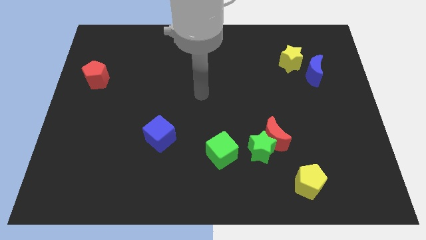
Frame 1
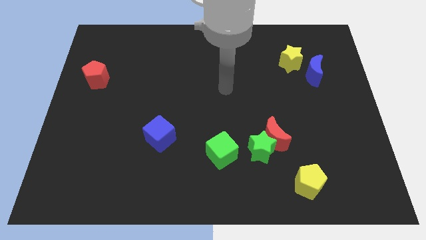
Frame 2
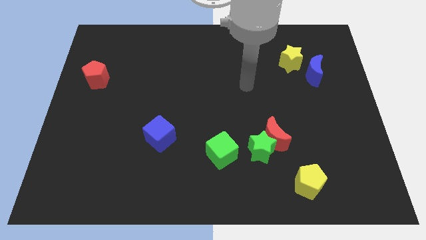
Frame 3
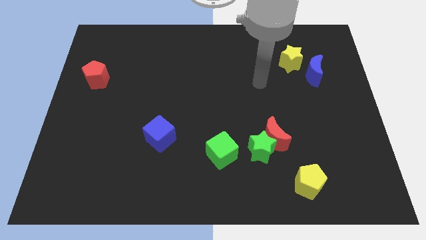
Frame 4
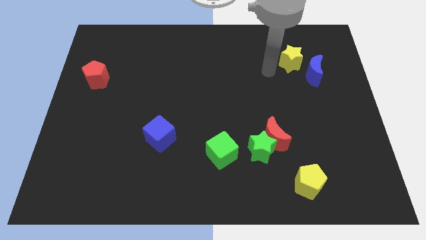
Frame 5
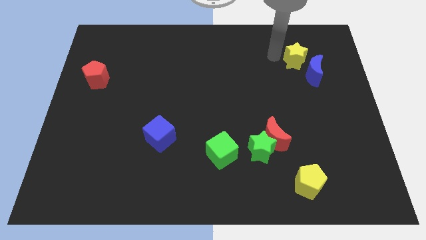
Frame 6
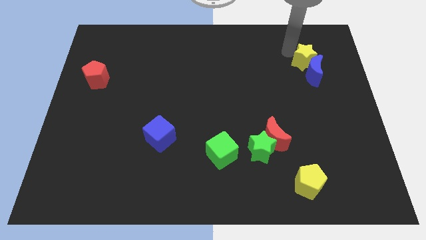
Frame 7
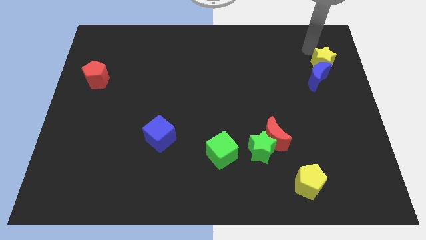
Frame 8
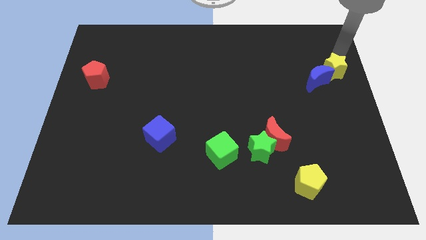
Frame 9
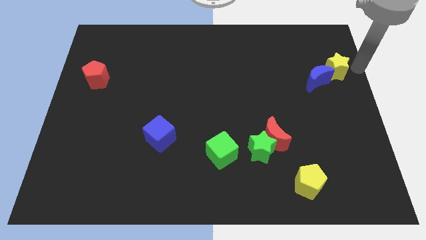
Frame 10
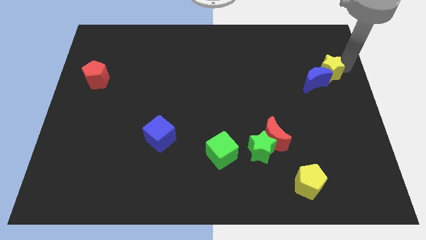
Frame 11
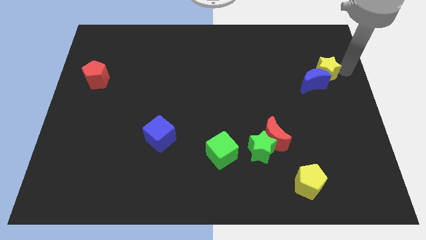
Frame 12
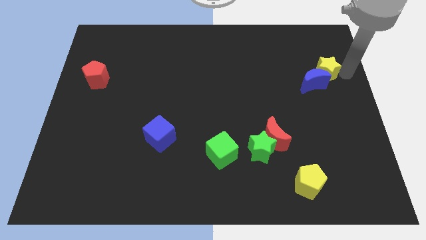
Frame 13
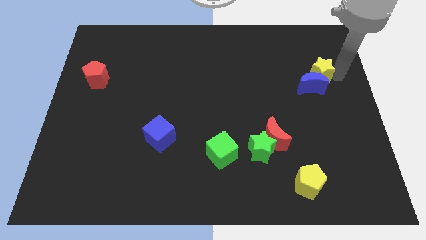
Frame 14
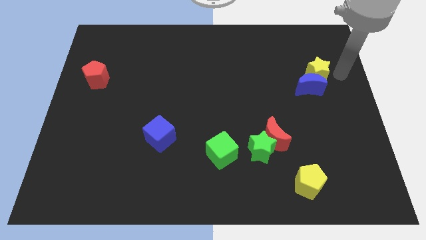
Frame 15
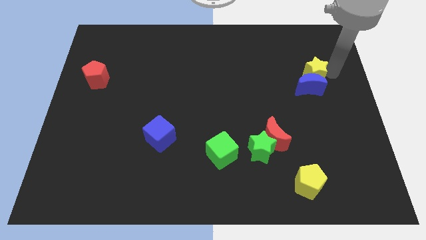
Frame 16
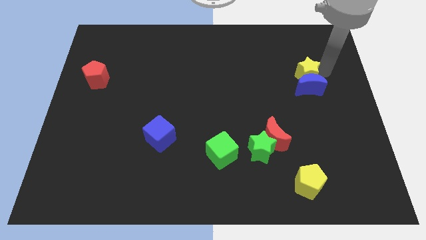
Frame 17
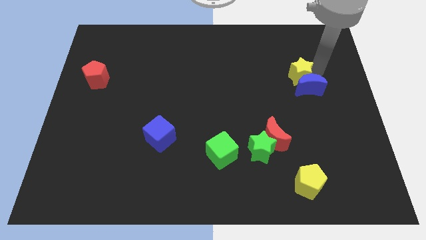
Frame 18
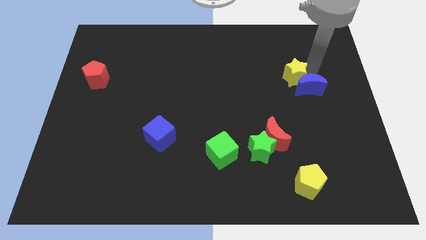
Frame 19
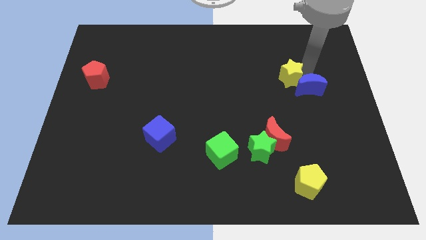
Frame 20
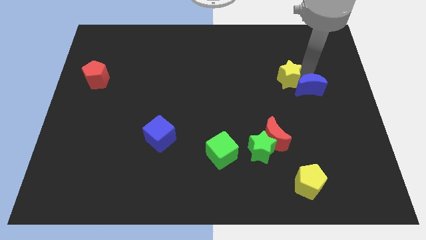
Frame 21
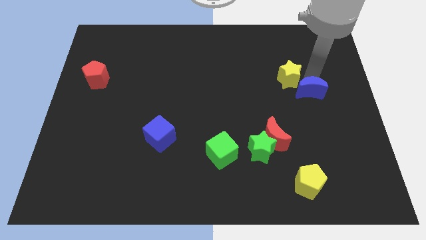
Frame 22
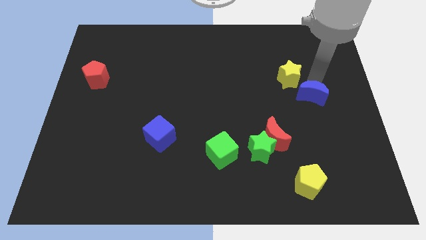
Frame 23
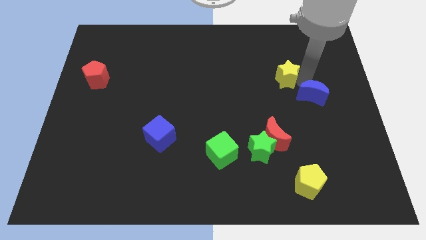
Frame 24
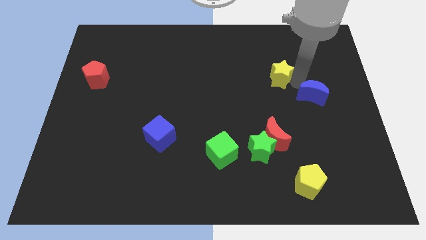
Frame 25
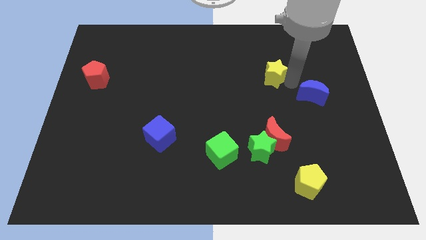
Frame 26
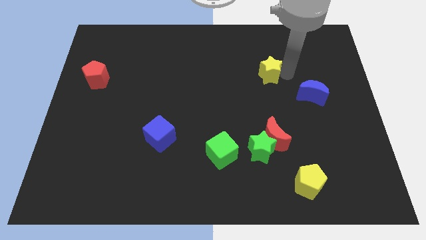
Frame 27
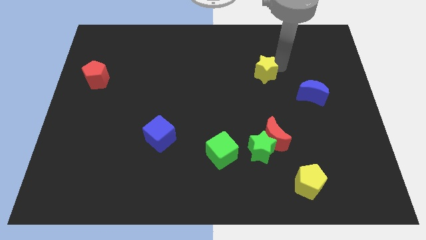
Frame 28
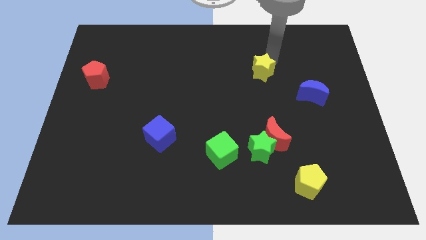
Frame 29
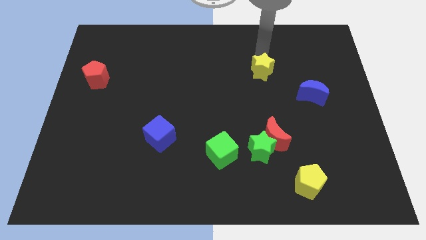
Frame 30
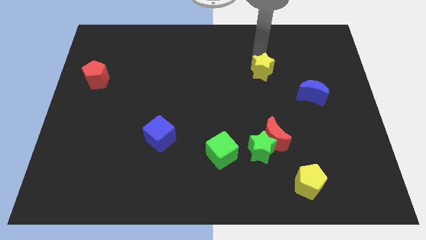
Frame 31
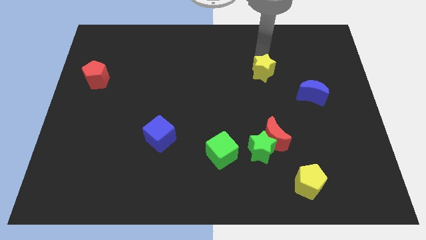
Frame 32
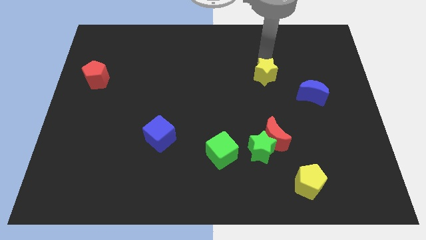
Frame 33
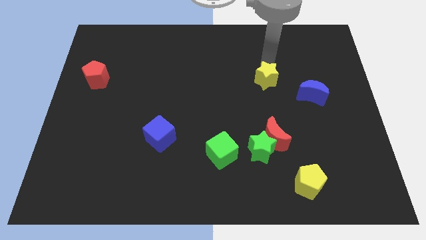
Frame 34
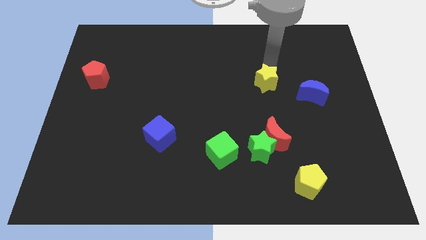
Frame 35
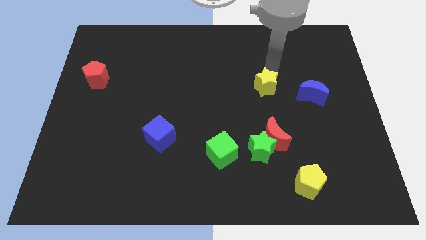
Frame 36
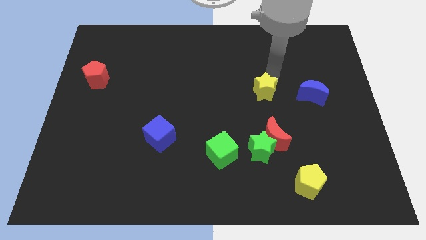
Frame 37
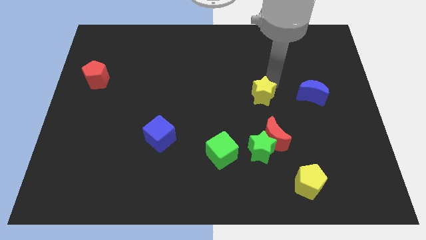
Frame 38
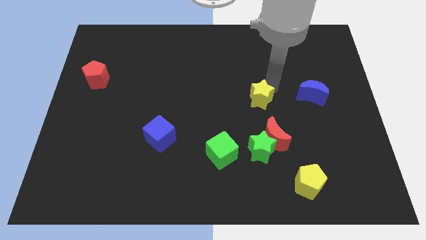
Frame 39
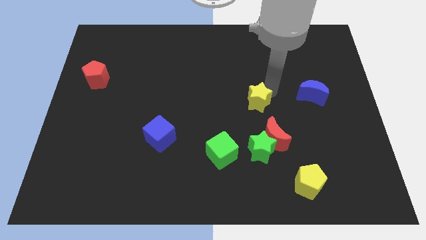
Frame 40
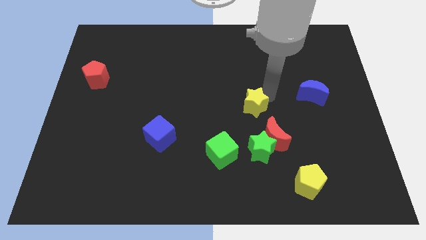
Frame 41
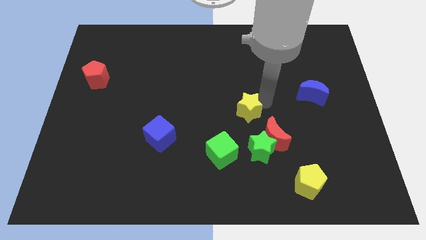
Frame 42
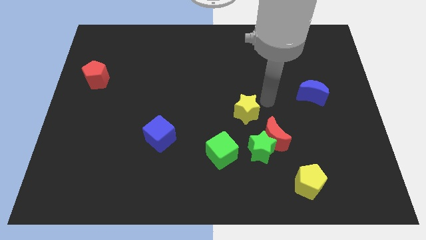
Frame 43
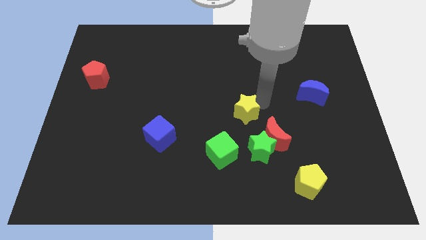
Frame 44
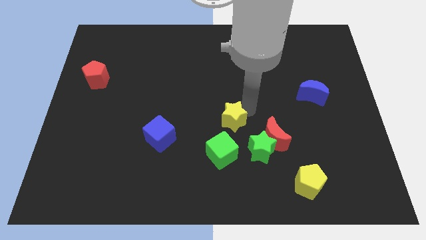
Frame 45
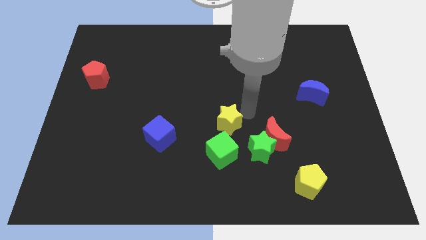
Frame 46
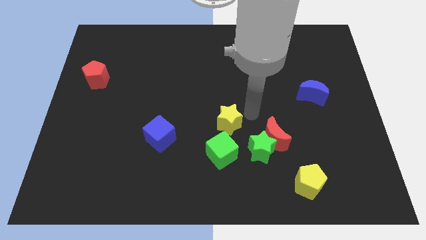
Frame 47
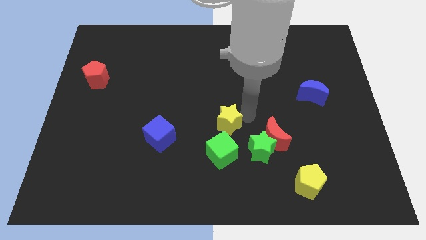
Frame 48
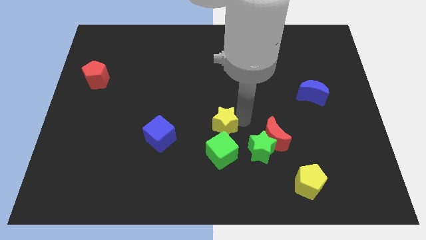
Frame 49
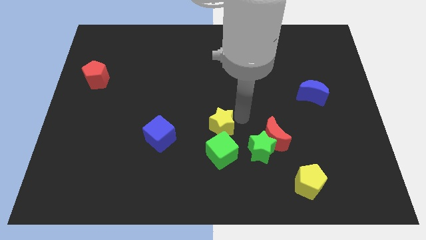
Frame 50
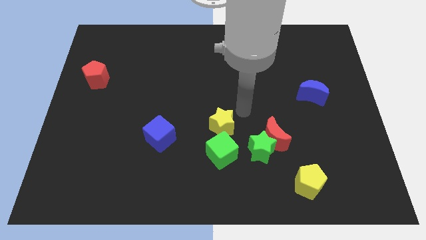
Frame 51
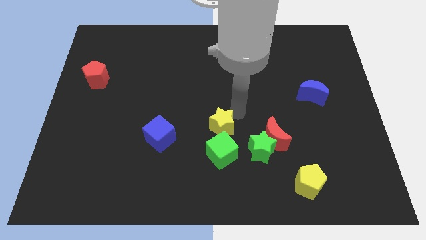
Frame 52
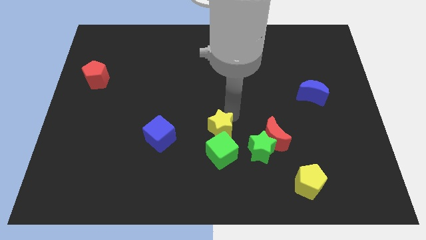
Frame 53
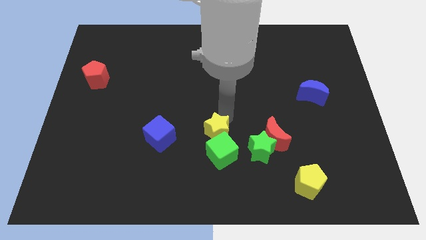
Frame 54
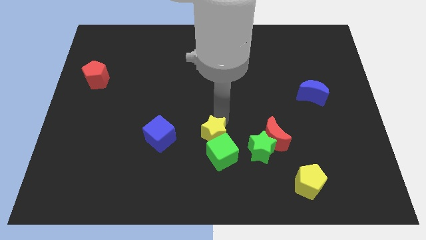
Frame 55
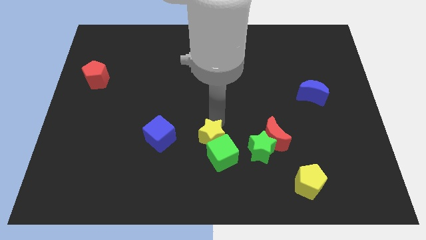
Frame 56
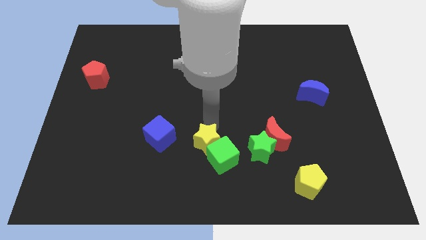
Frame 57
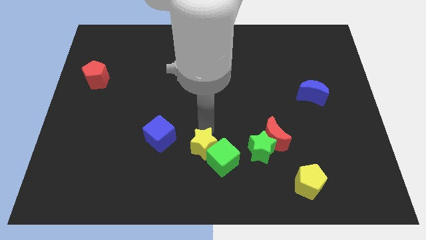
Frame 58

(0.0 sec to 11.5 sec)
slide the yellow star diagonally down and to the right of the blue cube

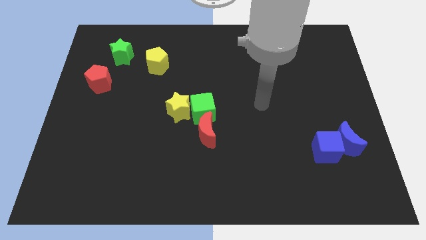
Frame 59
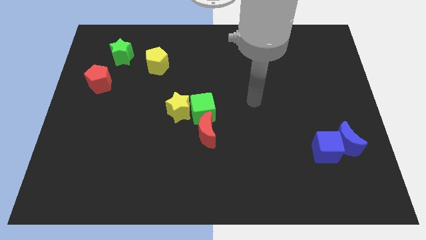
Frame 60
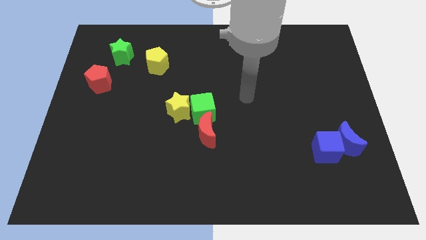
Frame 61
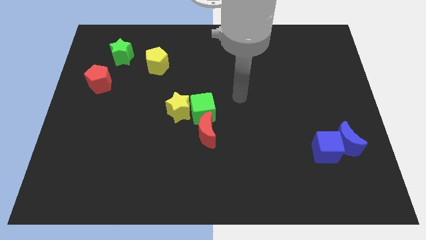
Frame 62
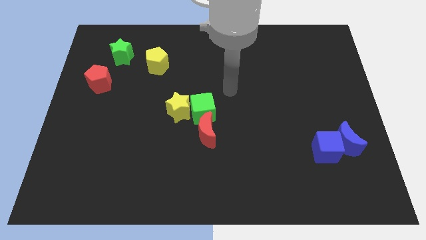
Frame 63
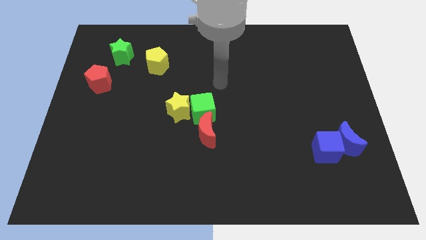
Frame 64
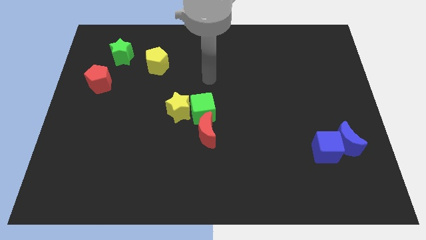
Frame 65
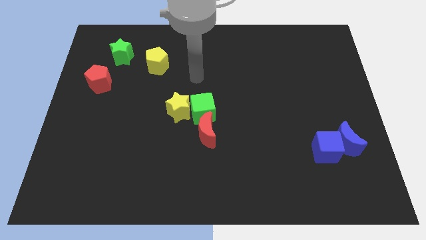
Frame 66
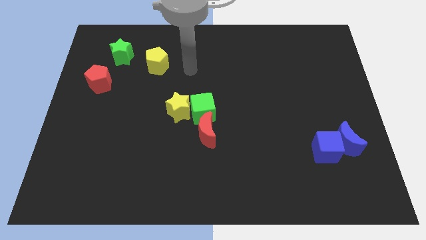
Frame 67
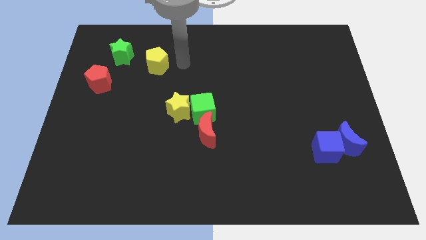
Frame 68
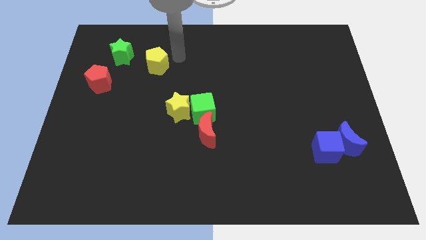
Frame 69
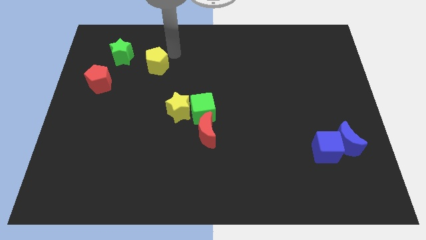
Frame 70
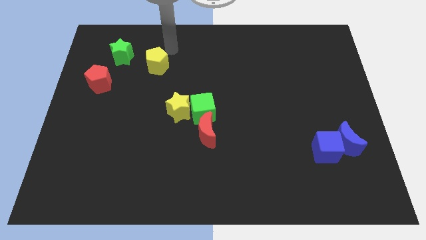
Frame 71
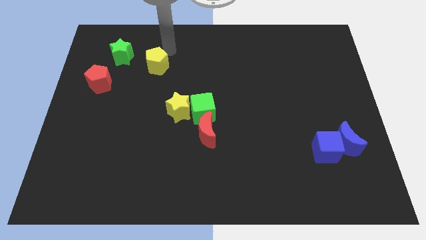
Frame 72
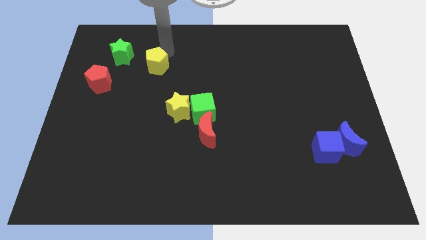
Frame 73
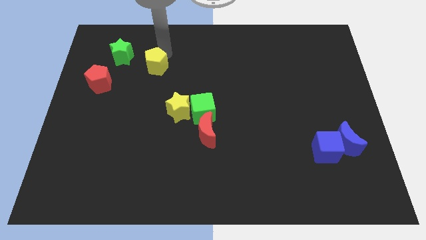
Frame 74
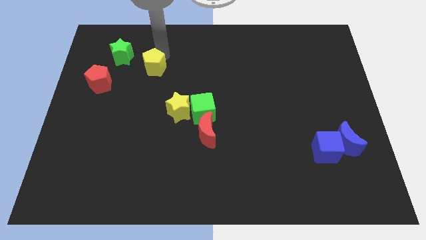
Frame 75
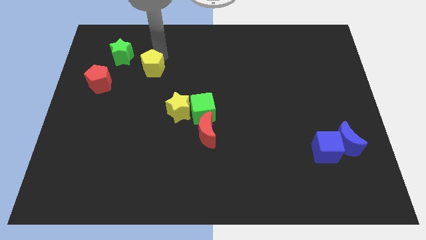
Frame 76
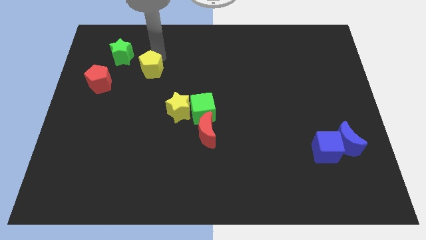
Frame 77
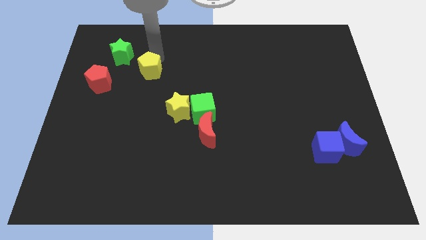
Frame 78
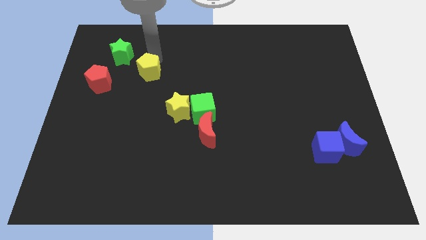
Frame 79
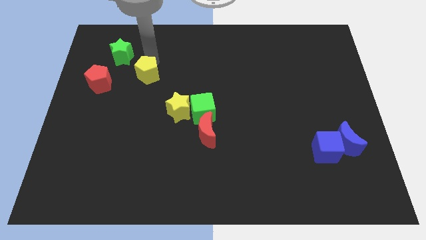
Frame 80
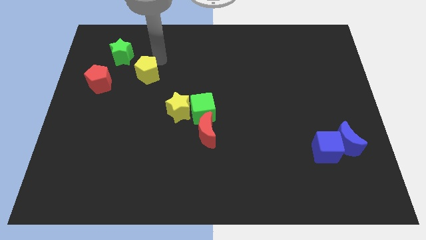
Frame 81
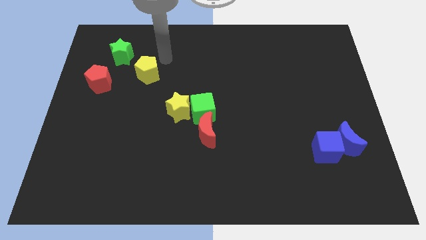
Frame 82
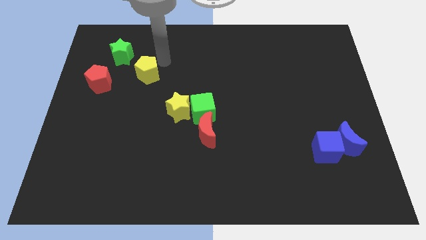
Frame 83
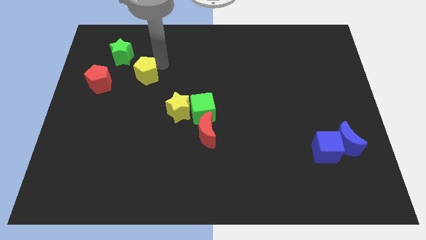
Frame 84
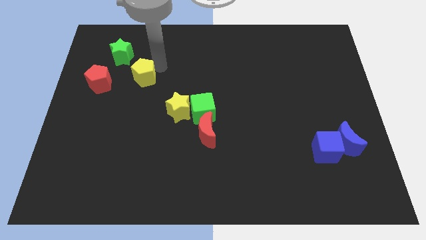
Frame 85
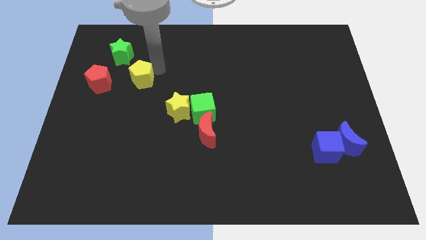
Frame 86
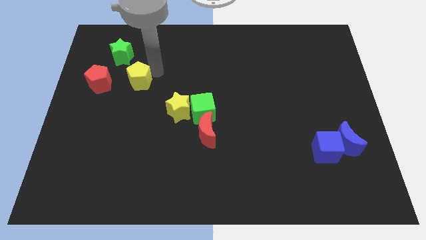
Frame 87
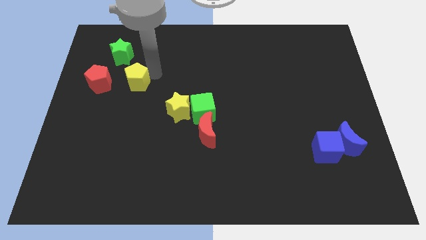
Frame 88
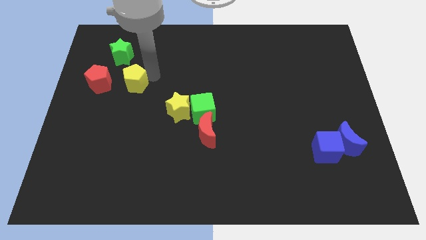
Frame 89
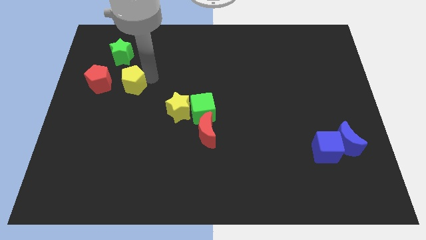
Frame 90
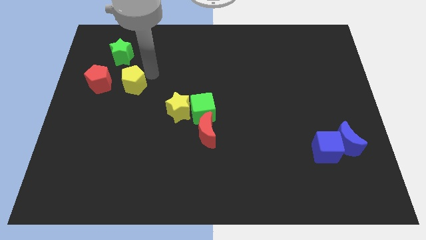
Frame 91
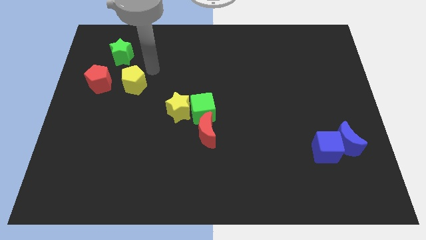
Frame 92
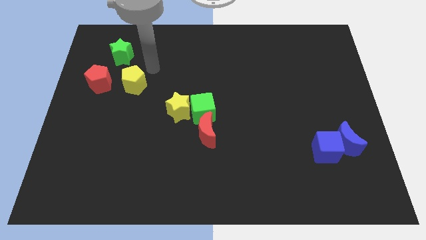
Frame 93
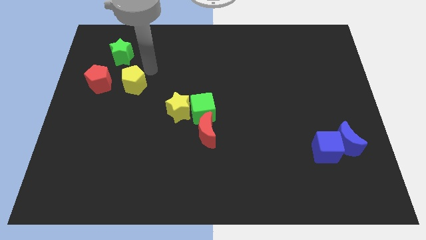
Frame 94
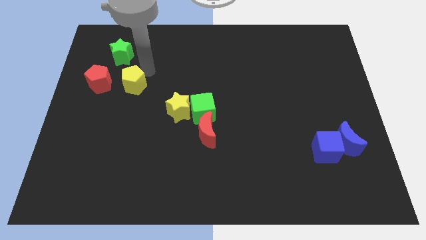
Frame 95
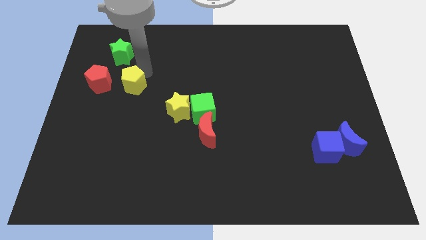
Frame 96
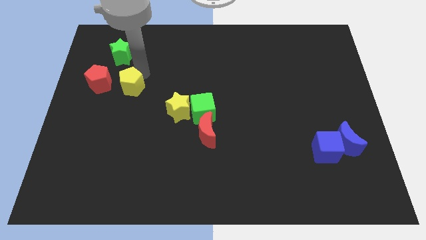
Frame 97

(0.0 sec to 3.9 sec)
move the yellow pentagon to the bottom right of the red pentagon
